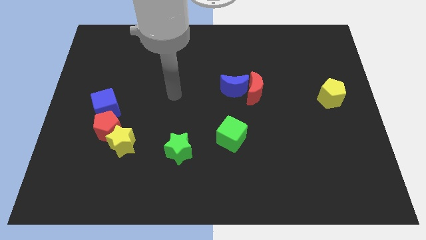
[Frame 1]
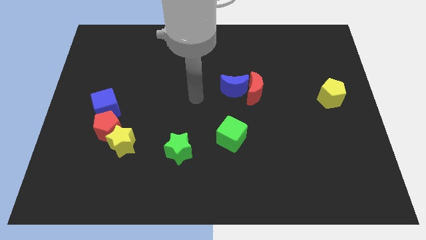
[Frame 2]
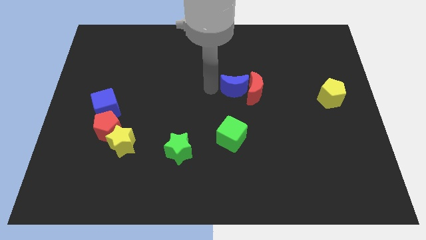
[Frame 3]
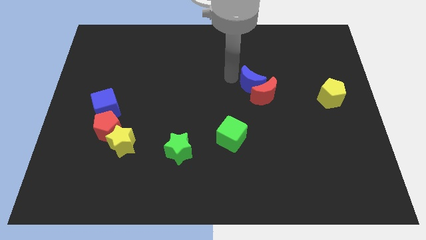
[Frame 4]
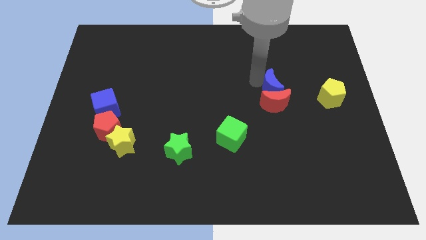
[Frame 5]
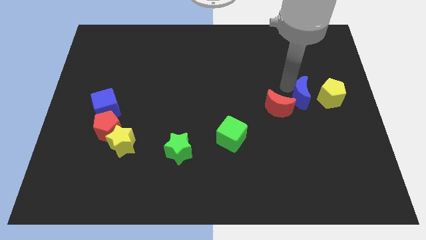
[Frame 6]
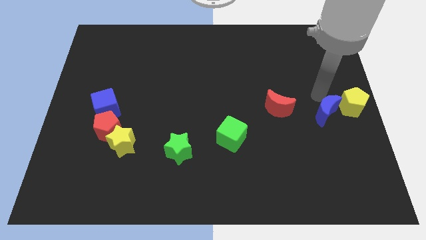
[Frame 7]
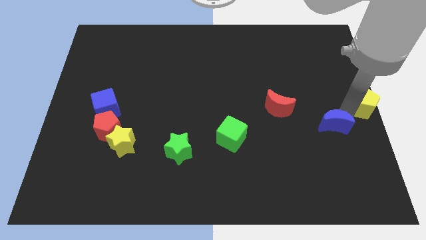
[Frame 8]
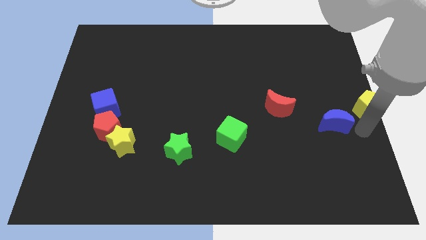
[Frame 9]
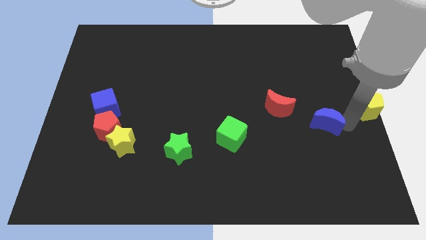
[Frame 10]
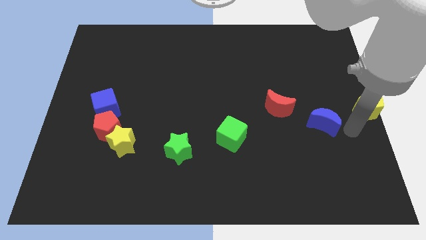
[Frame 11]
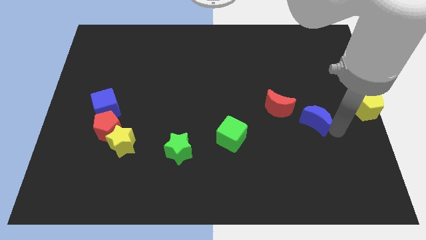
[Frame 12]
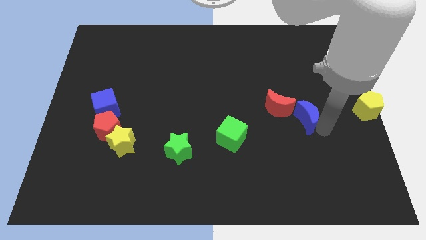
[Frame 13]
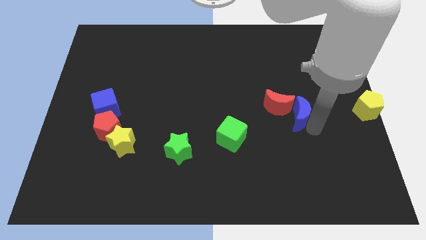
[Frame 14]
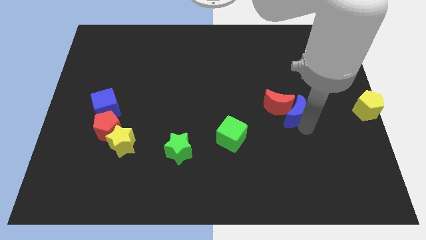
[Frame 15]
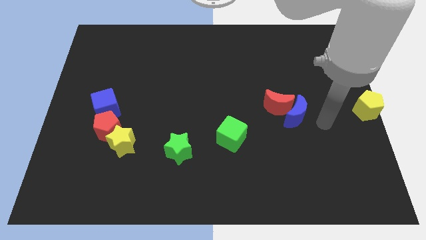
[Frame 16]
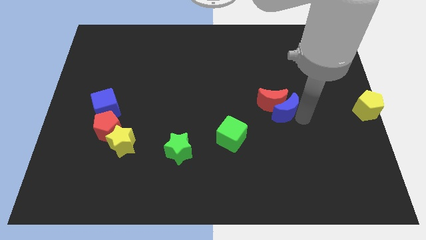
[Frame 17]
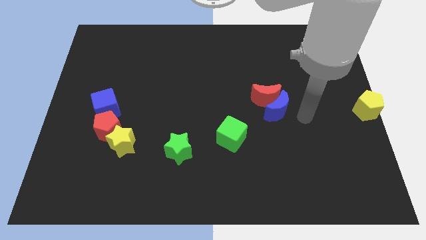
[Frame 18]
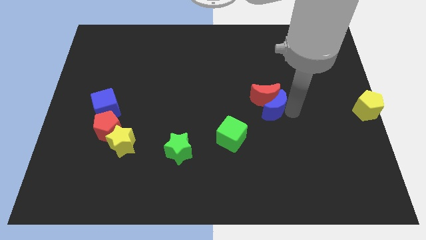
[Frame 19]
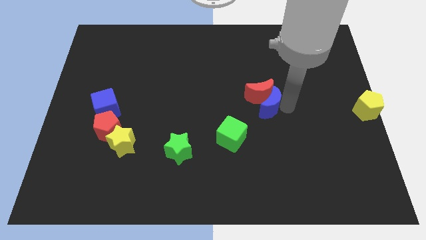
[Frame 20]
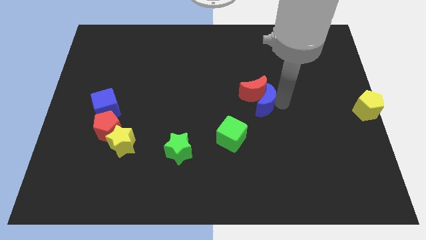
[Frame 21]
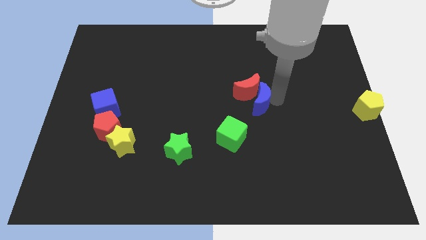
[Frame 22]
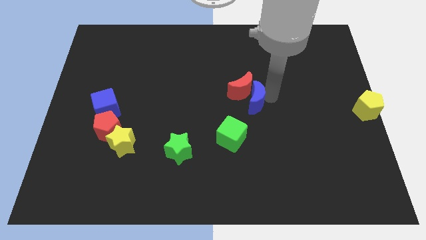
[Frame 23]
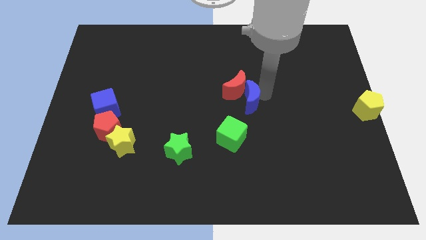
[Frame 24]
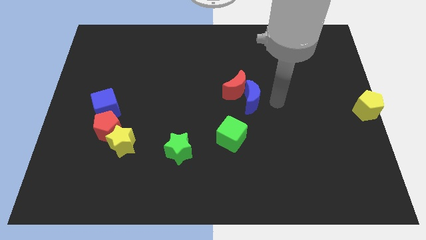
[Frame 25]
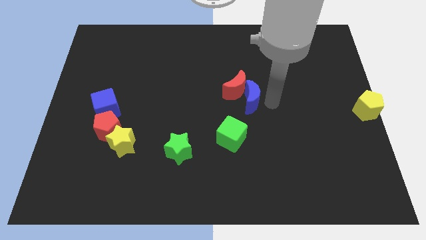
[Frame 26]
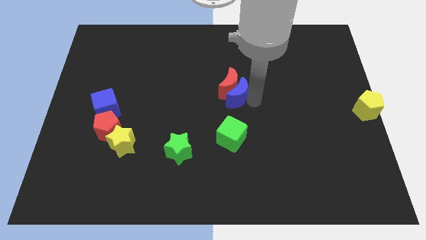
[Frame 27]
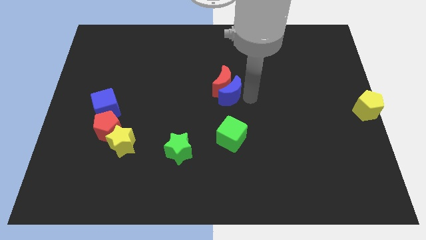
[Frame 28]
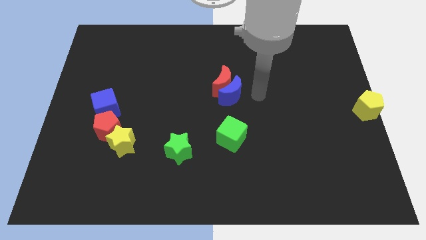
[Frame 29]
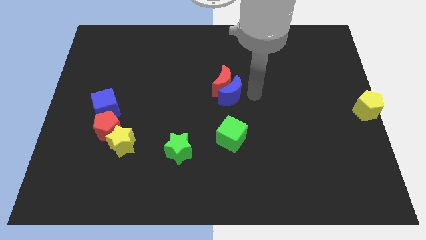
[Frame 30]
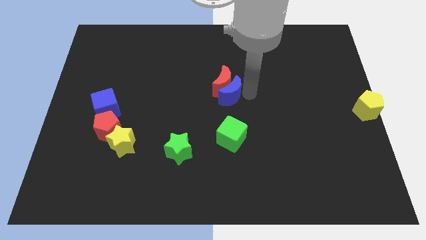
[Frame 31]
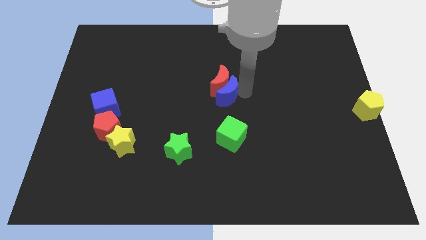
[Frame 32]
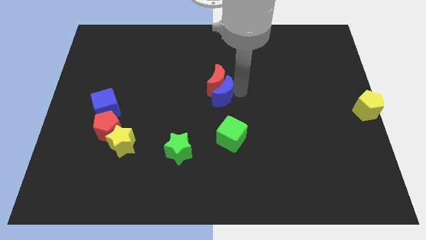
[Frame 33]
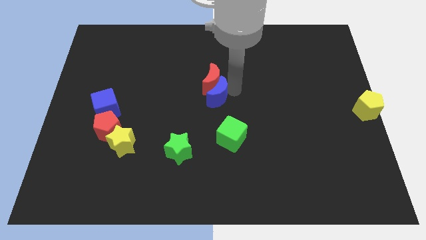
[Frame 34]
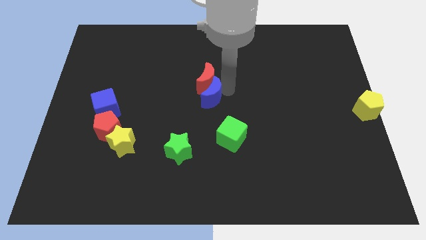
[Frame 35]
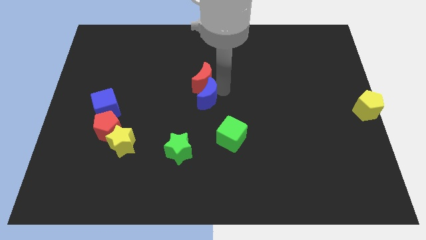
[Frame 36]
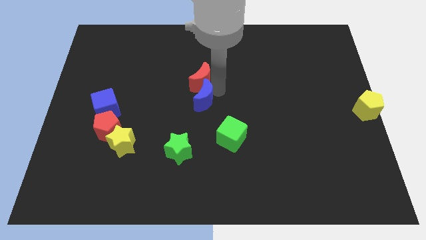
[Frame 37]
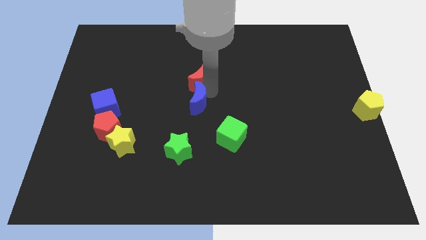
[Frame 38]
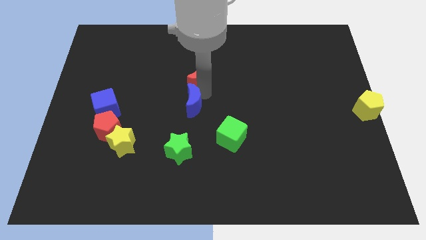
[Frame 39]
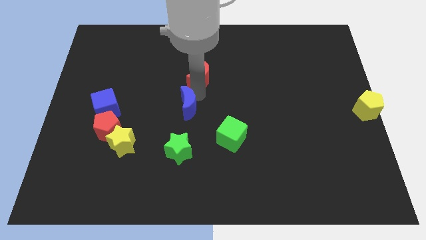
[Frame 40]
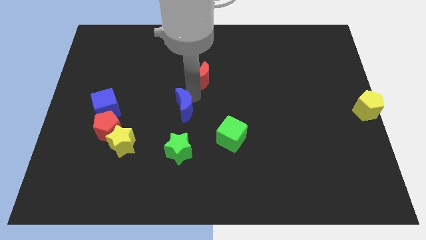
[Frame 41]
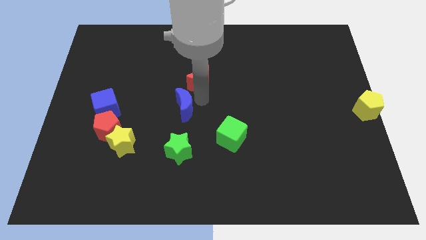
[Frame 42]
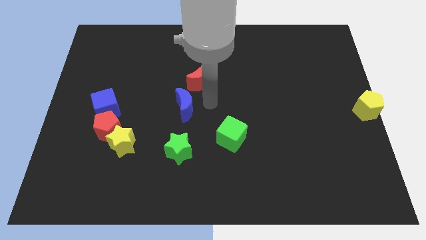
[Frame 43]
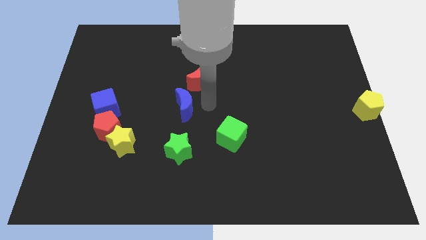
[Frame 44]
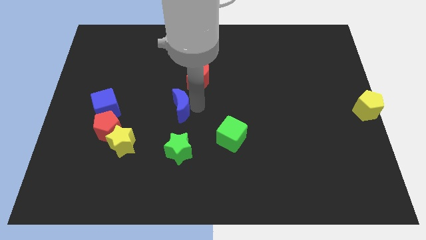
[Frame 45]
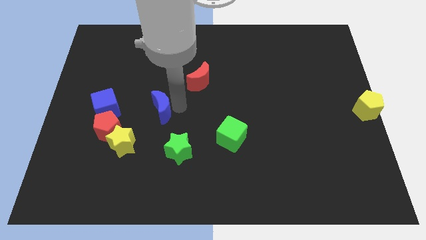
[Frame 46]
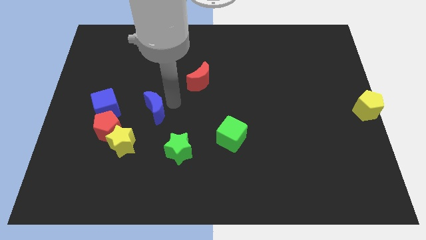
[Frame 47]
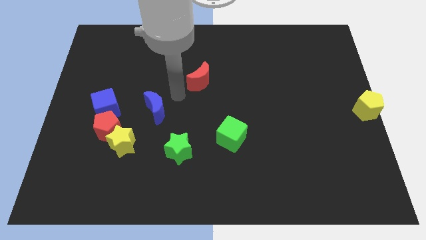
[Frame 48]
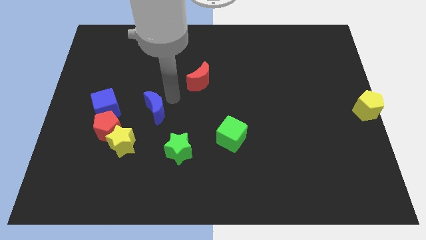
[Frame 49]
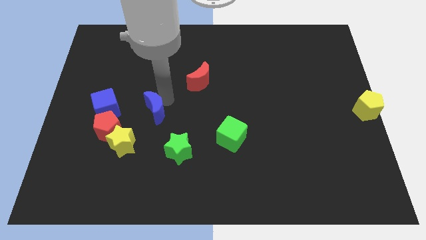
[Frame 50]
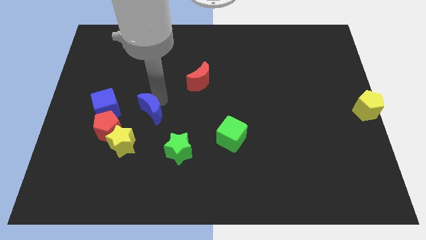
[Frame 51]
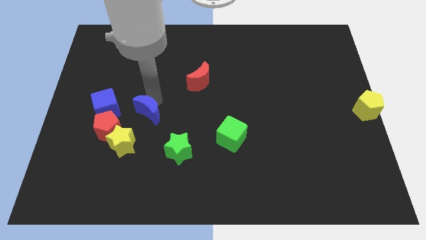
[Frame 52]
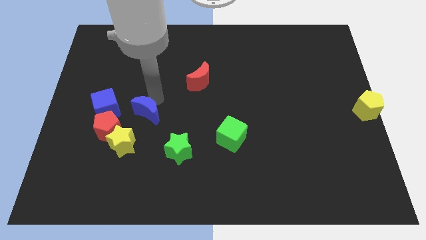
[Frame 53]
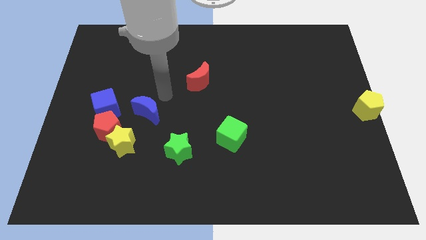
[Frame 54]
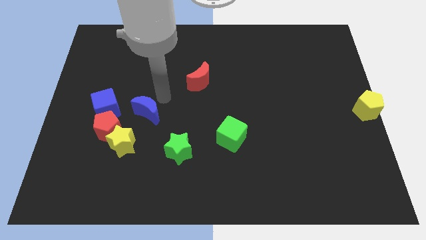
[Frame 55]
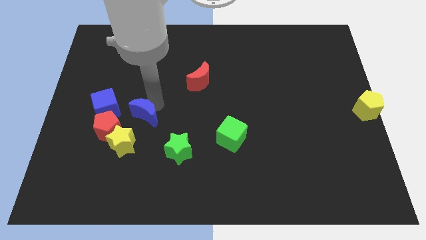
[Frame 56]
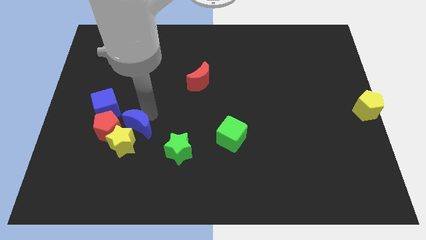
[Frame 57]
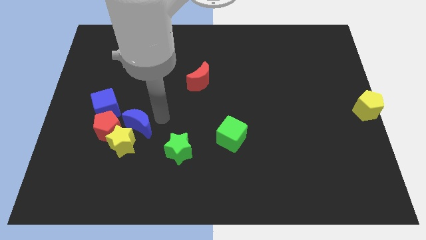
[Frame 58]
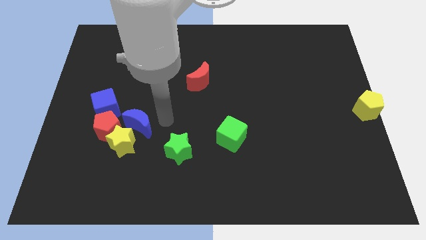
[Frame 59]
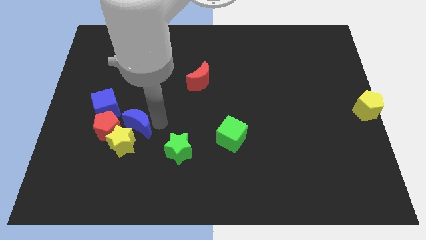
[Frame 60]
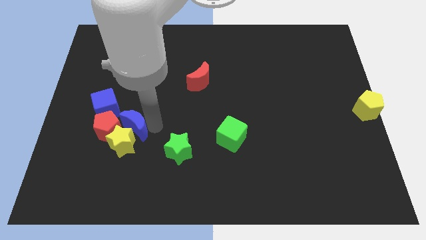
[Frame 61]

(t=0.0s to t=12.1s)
push the blue moon close to the red pentagon

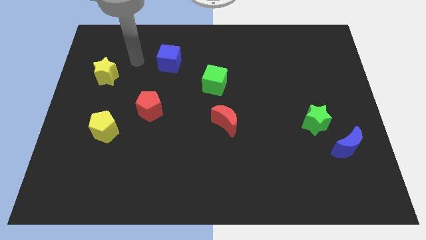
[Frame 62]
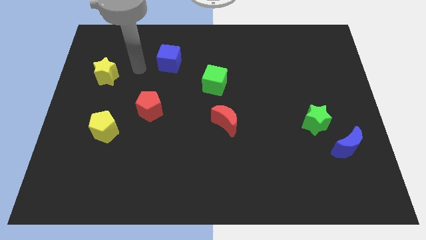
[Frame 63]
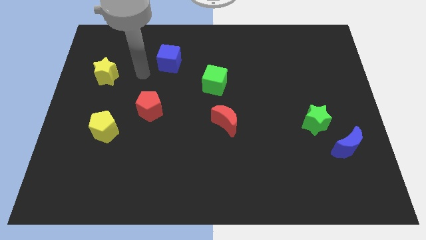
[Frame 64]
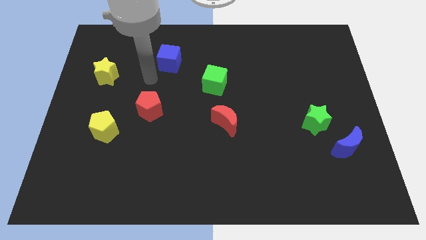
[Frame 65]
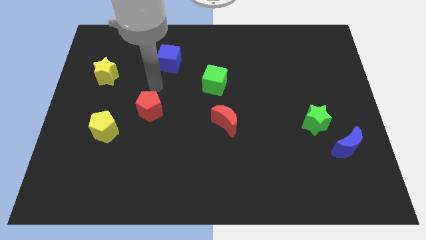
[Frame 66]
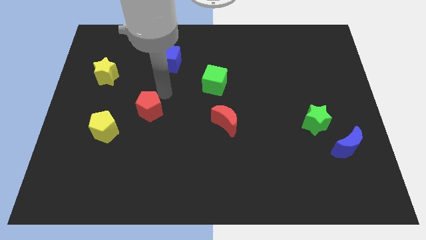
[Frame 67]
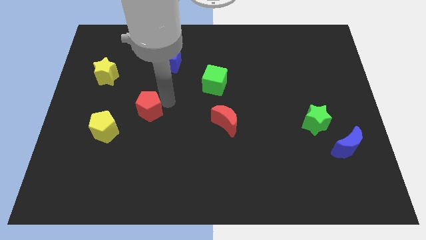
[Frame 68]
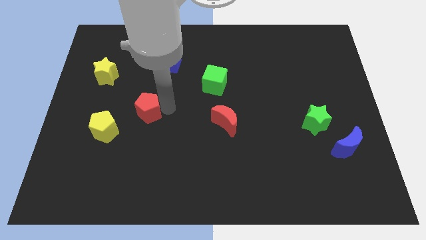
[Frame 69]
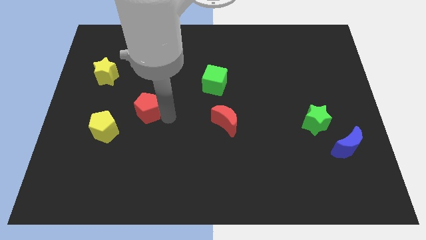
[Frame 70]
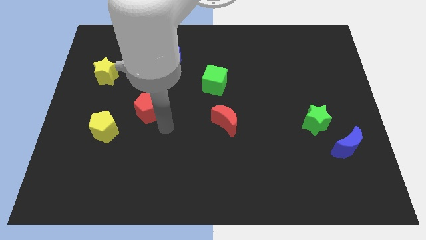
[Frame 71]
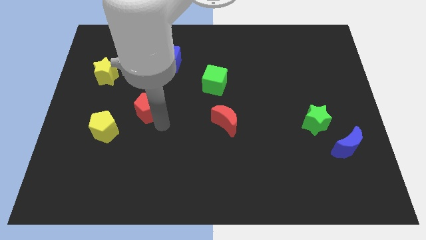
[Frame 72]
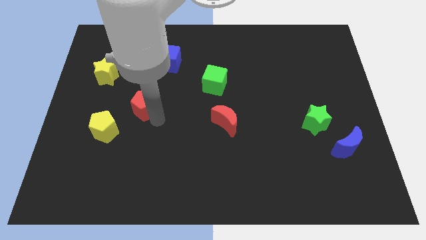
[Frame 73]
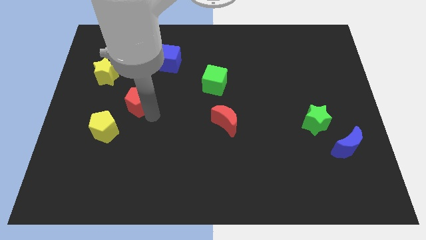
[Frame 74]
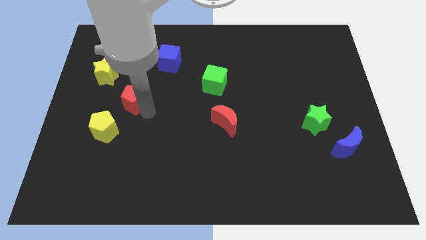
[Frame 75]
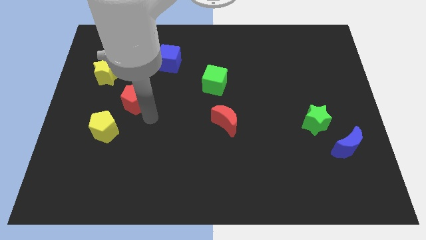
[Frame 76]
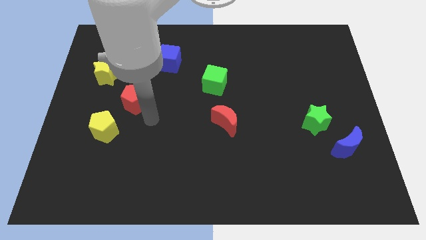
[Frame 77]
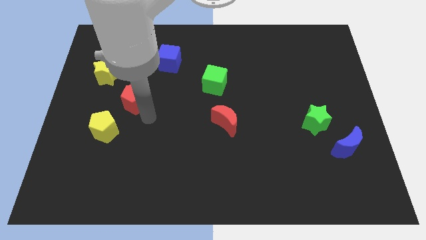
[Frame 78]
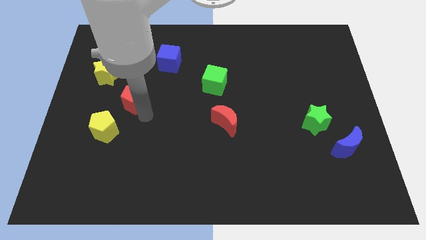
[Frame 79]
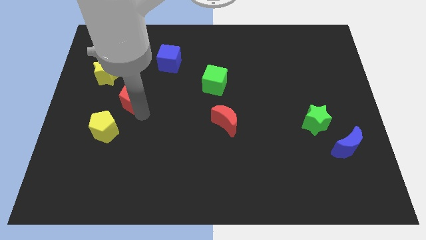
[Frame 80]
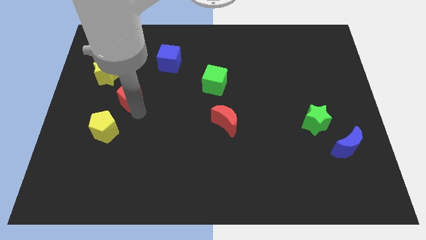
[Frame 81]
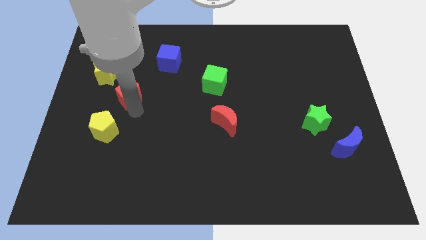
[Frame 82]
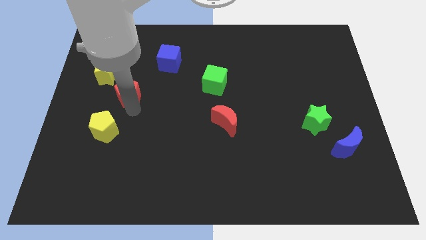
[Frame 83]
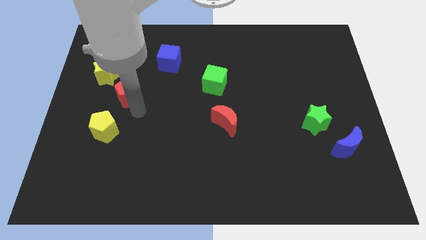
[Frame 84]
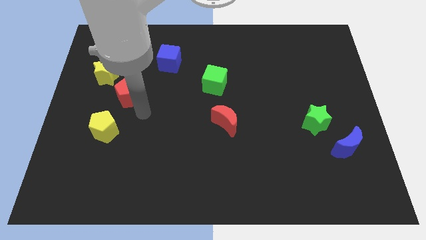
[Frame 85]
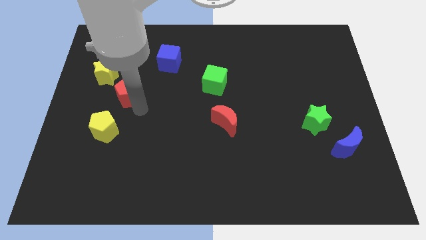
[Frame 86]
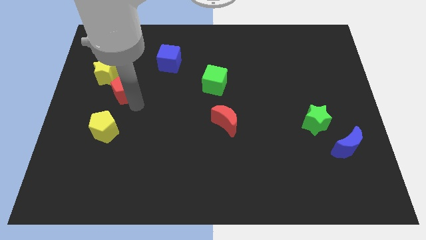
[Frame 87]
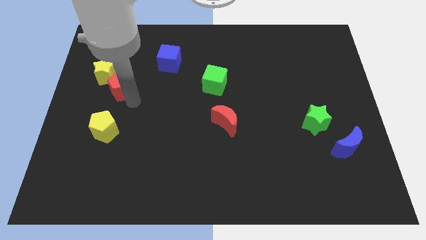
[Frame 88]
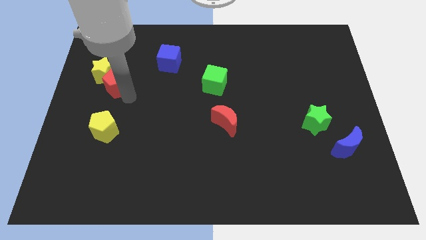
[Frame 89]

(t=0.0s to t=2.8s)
move the red pentagon to the yellow star
